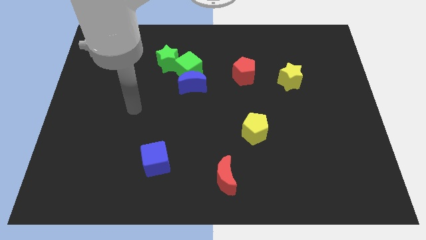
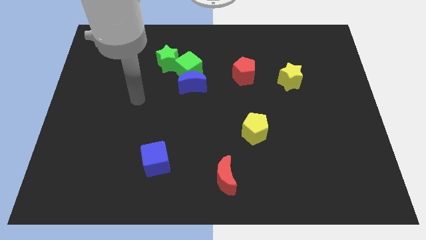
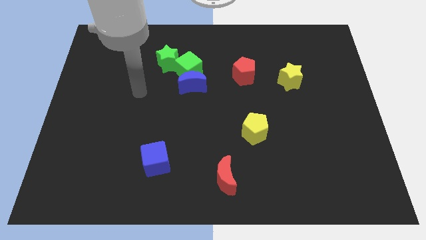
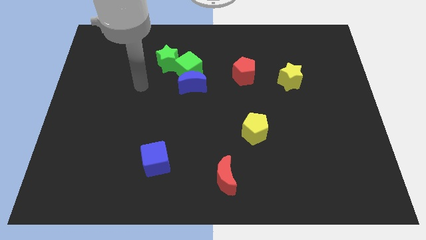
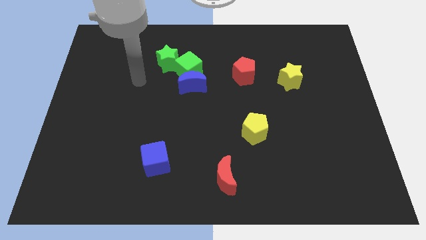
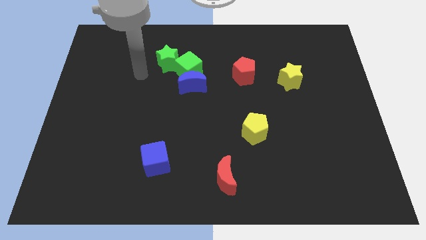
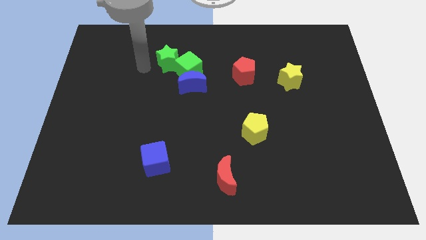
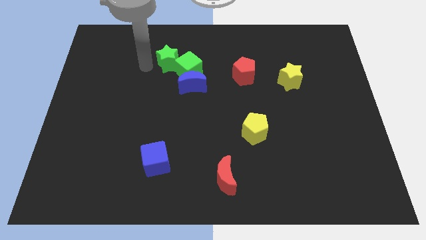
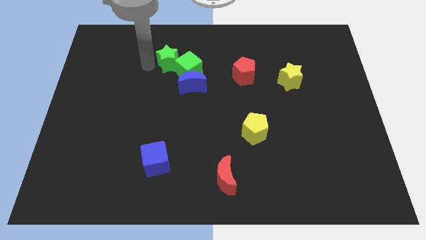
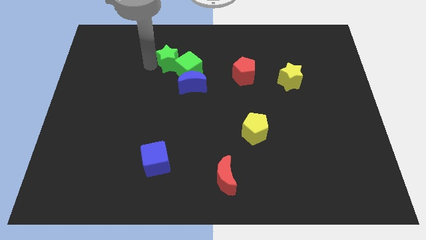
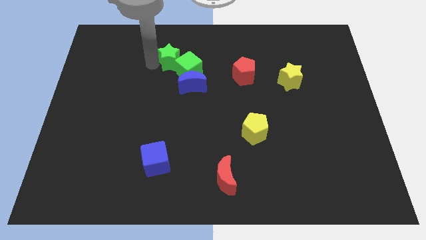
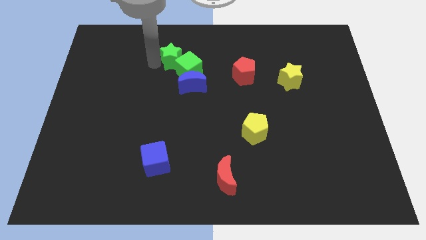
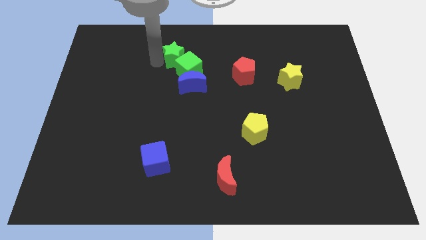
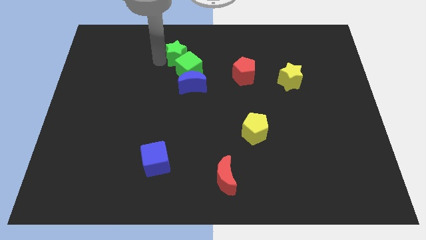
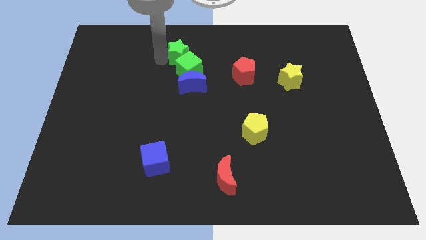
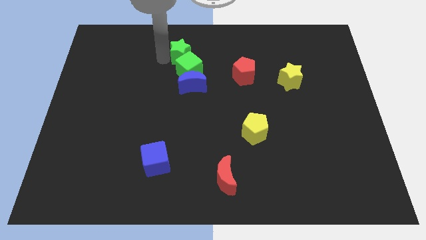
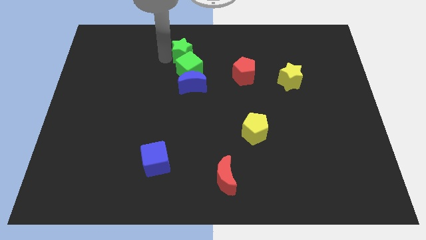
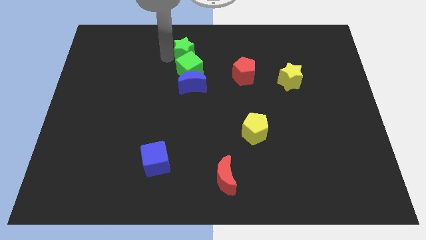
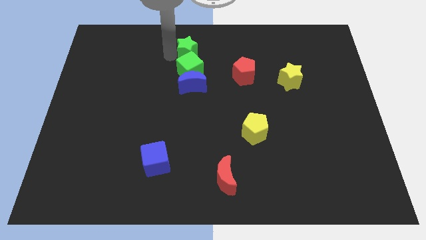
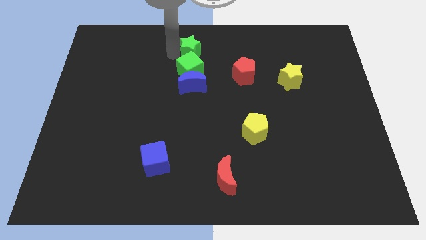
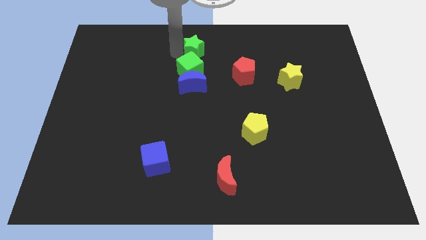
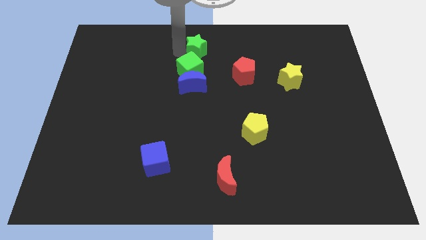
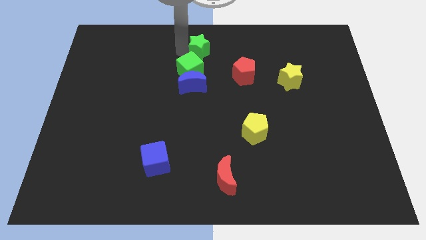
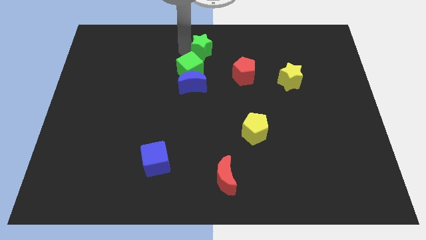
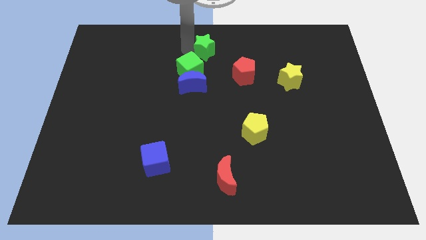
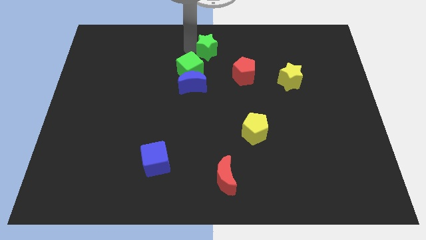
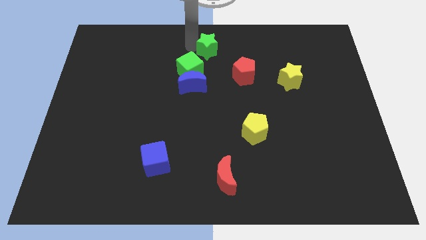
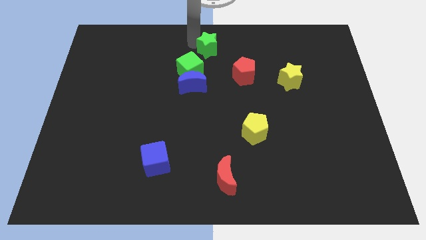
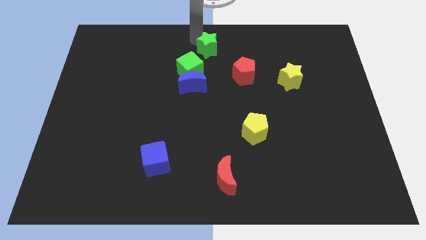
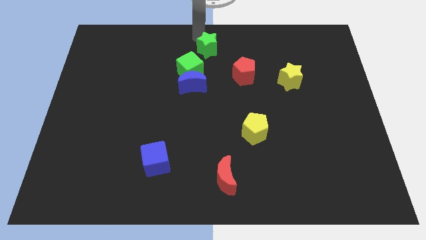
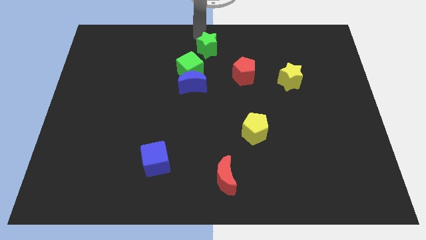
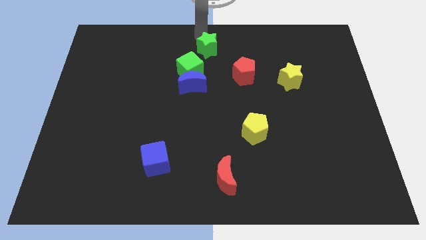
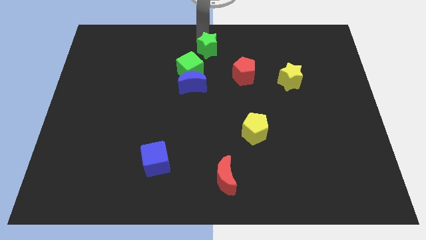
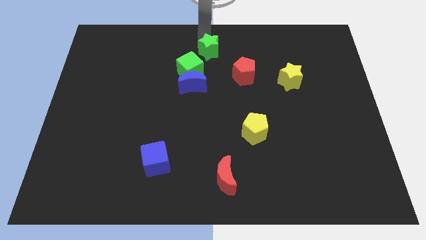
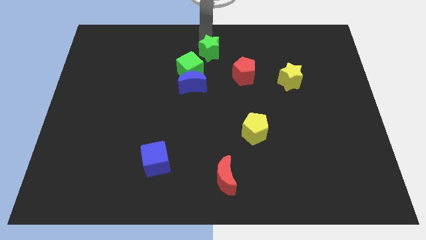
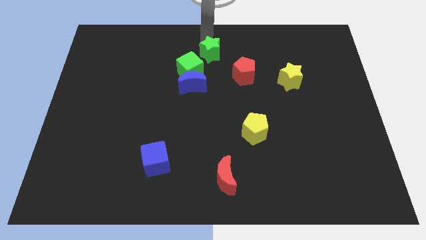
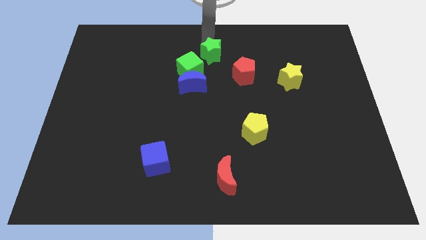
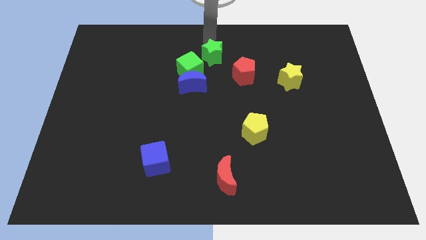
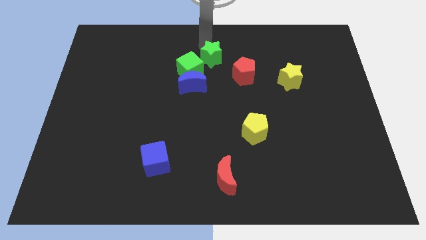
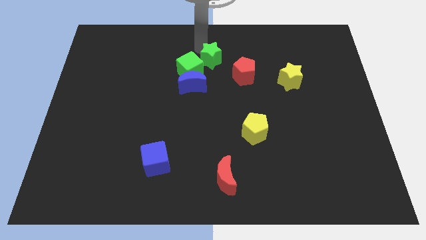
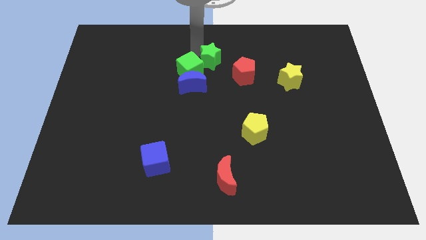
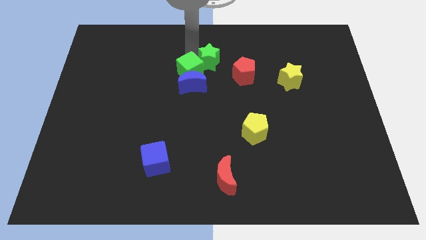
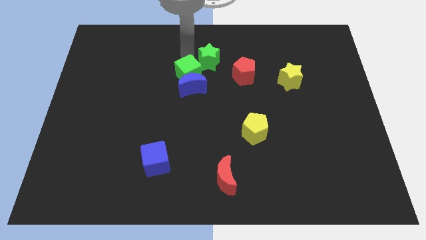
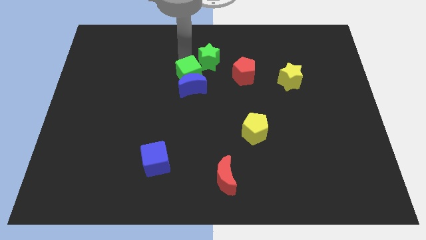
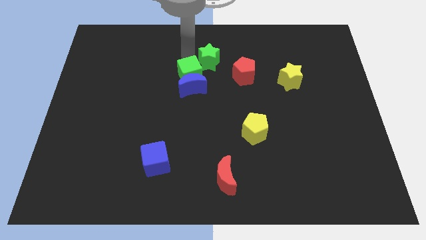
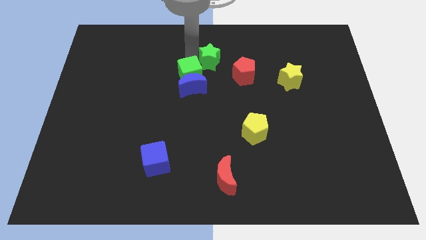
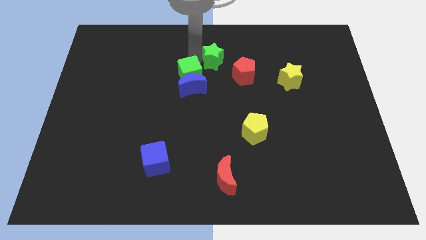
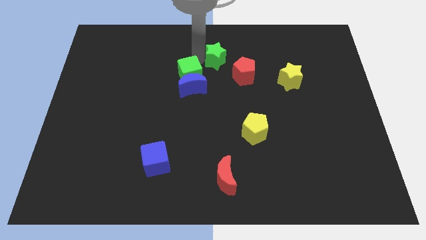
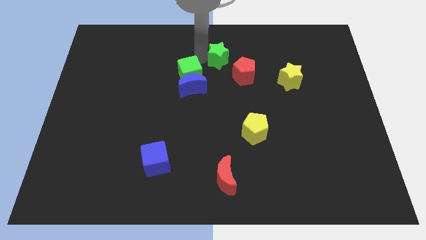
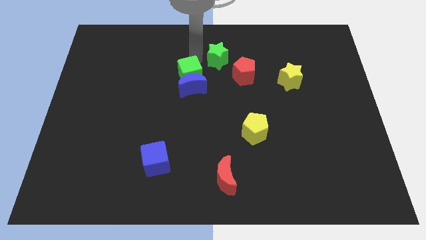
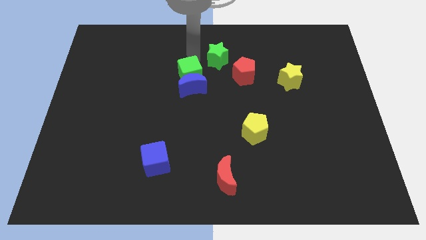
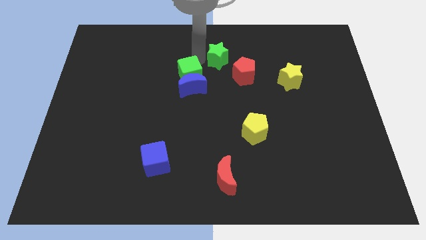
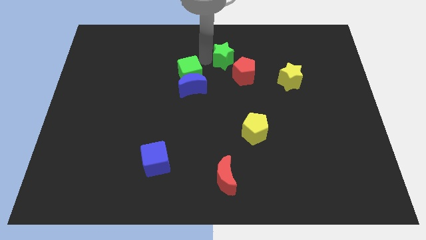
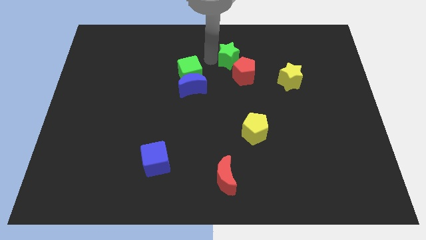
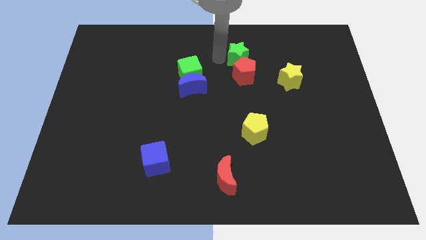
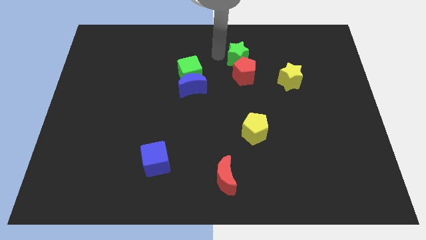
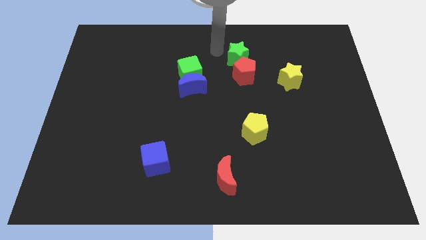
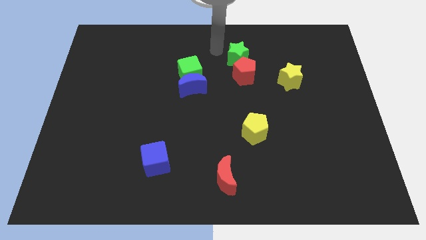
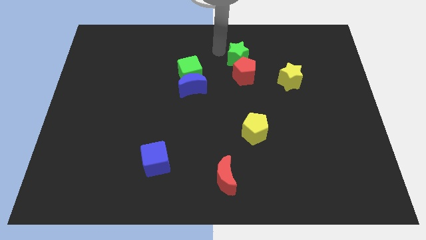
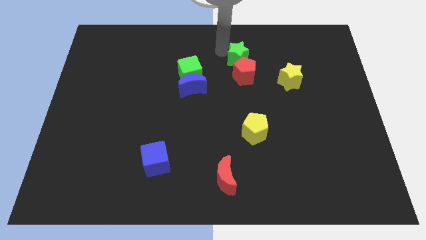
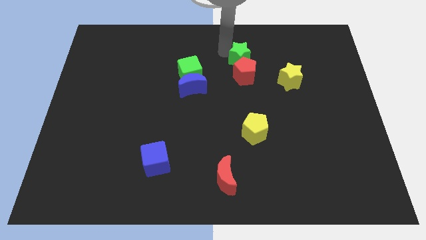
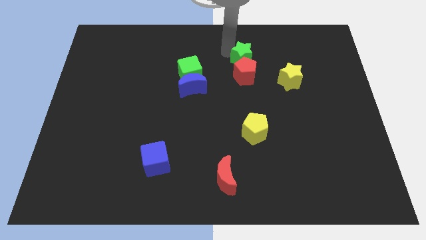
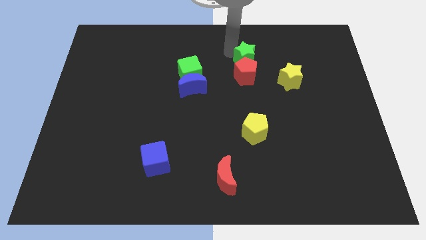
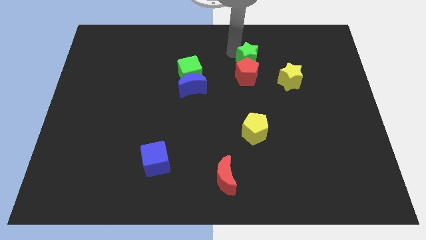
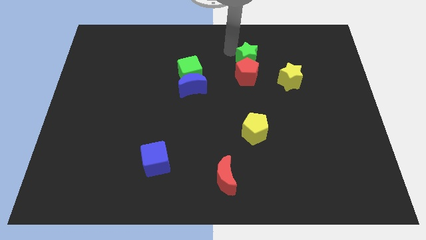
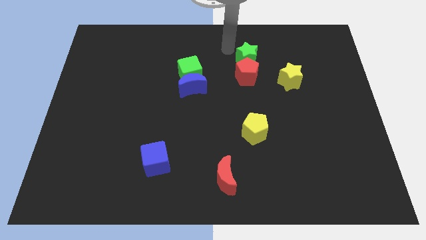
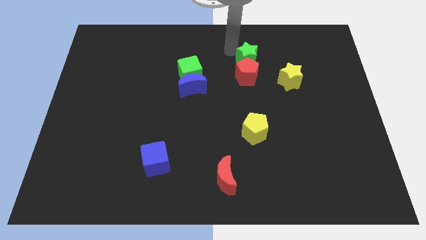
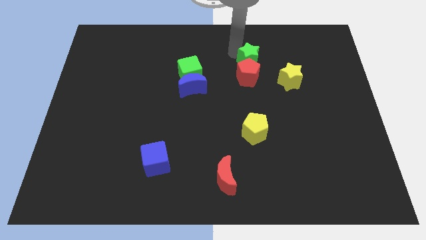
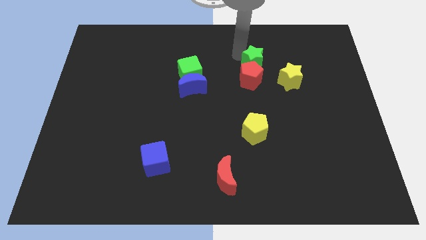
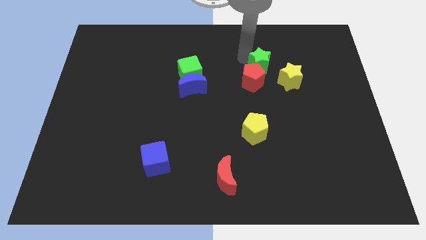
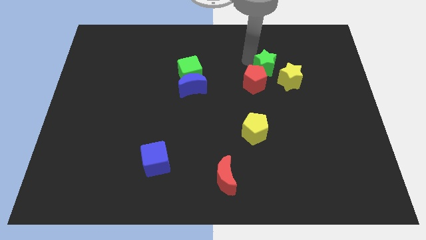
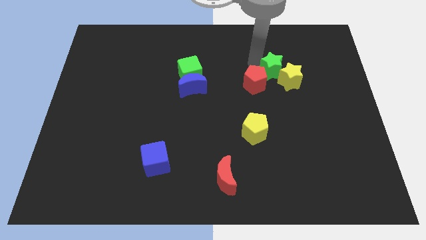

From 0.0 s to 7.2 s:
move the green star to the yellow star
